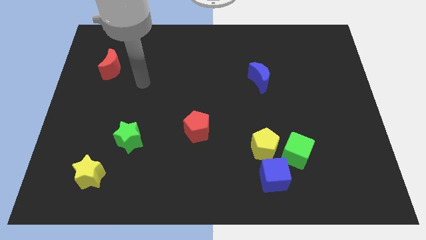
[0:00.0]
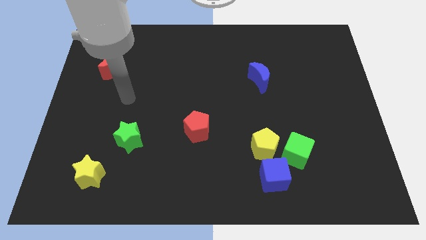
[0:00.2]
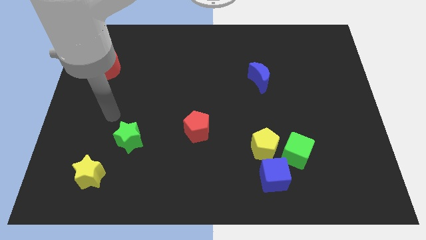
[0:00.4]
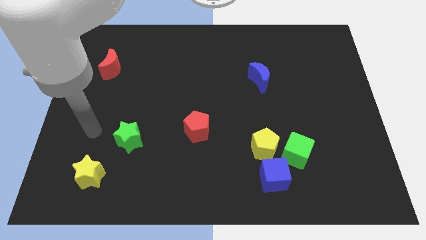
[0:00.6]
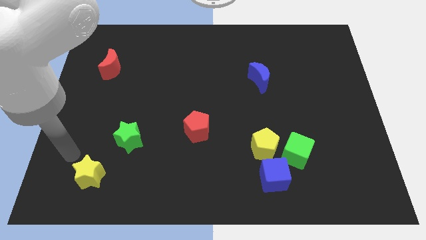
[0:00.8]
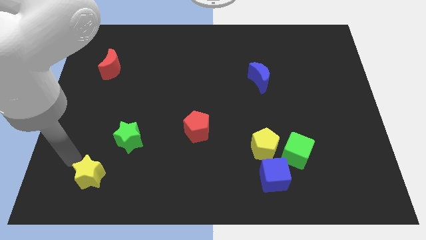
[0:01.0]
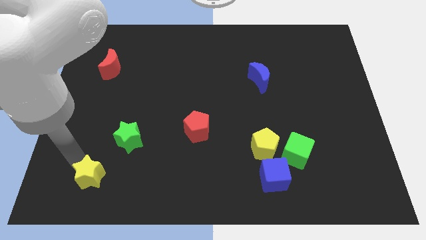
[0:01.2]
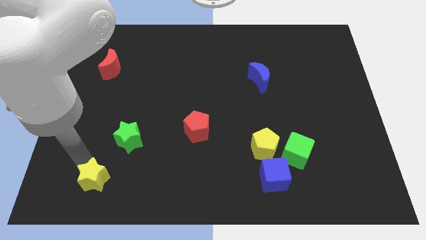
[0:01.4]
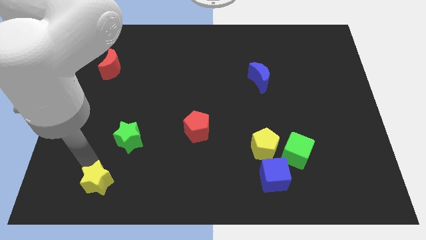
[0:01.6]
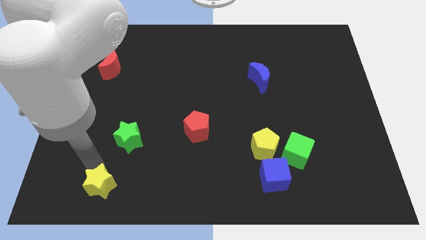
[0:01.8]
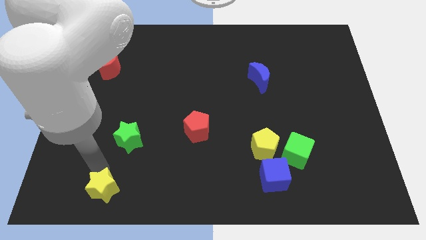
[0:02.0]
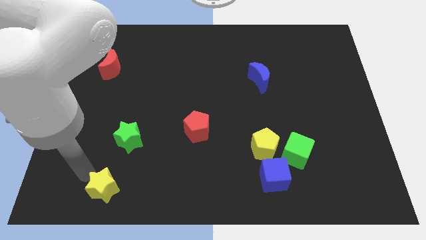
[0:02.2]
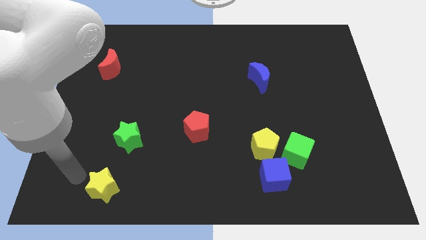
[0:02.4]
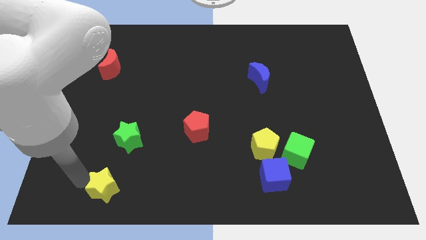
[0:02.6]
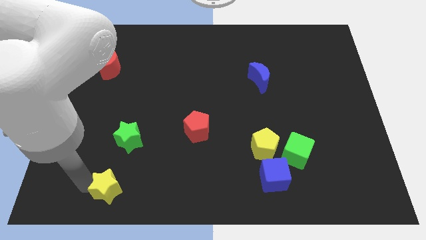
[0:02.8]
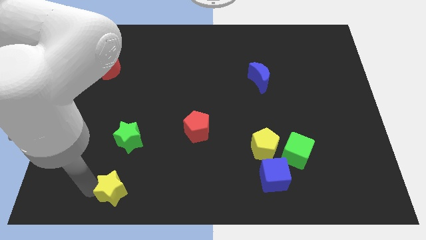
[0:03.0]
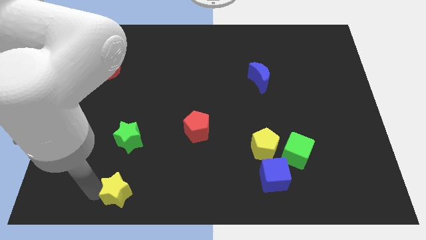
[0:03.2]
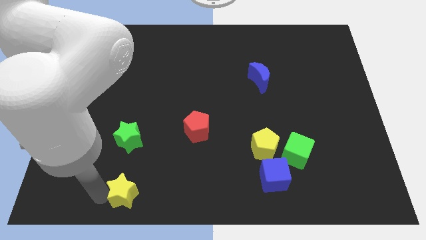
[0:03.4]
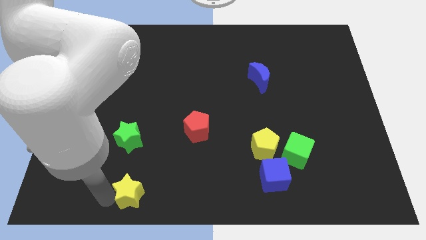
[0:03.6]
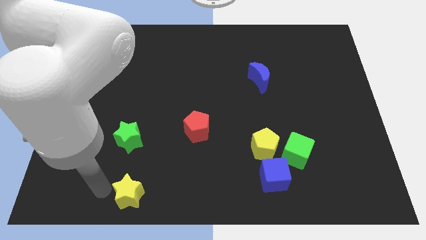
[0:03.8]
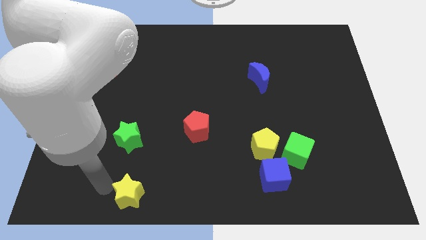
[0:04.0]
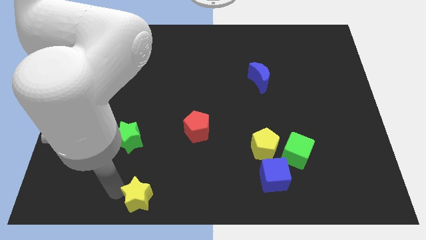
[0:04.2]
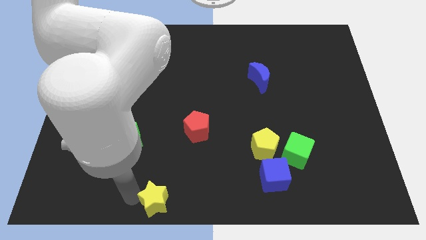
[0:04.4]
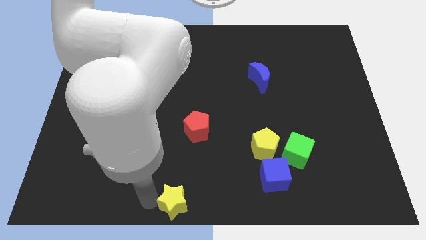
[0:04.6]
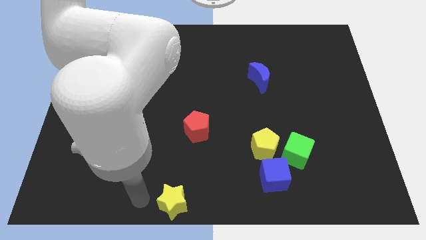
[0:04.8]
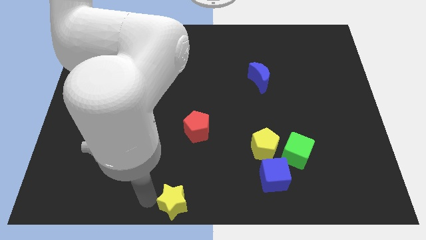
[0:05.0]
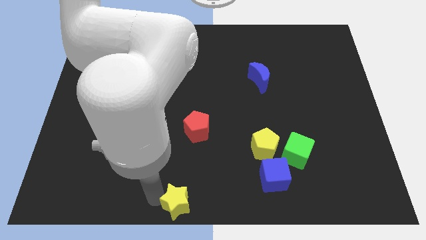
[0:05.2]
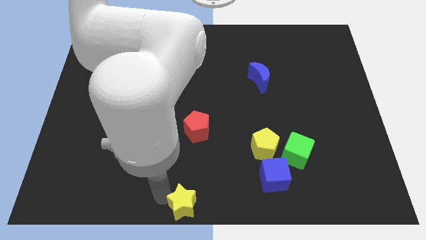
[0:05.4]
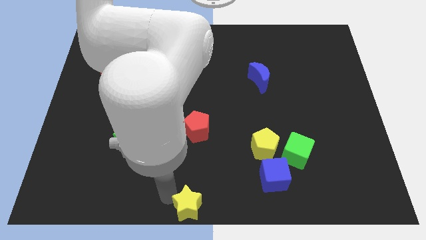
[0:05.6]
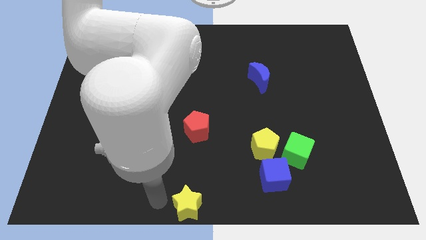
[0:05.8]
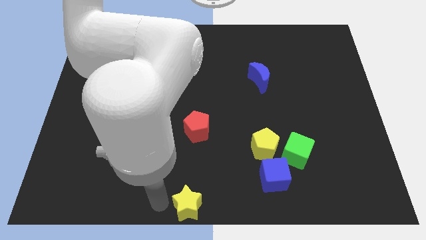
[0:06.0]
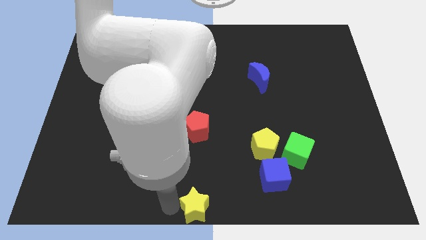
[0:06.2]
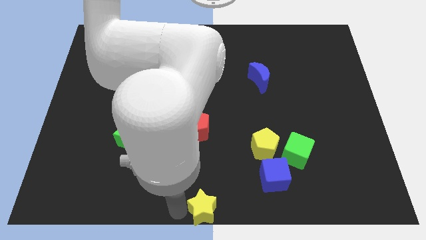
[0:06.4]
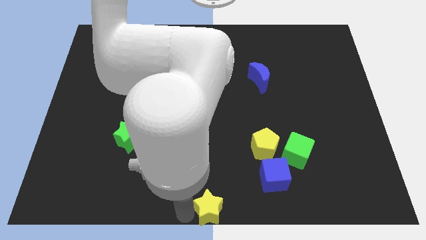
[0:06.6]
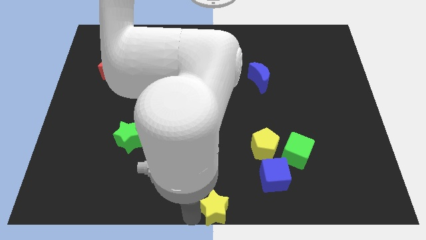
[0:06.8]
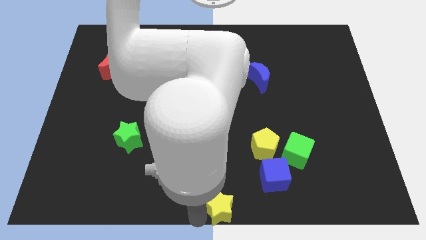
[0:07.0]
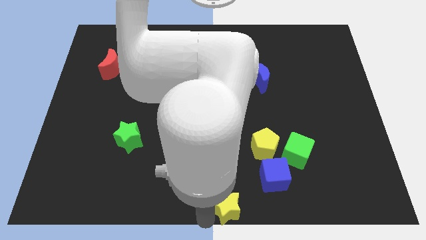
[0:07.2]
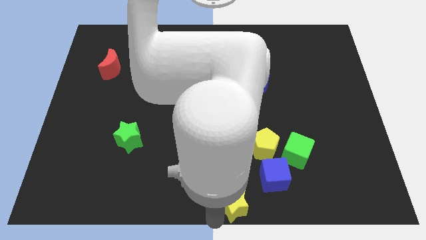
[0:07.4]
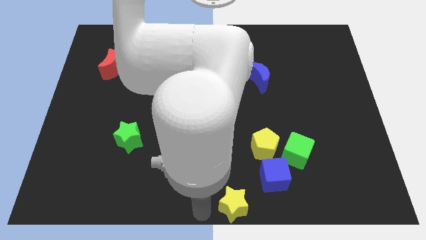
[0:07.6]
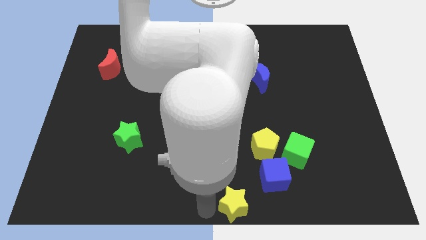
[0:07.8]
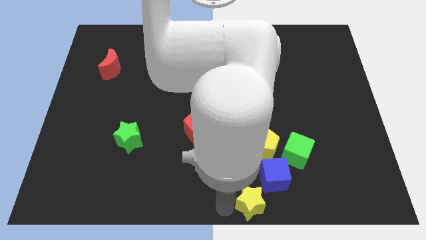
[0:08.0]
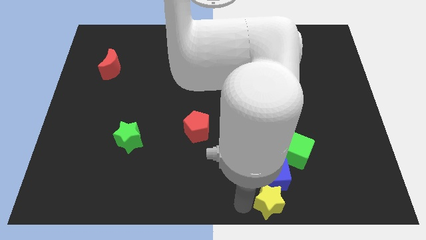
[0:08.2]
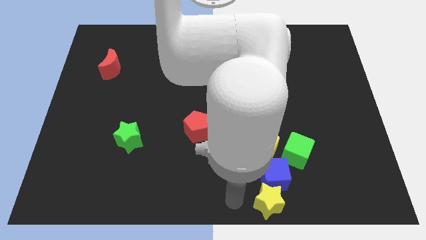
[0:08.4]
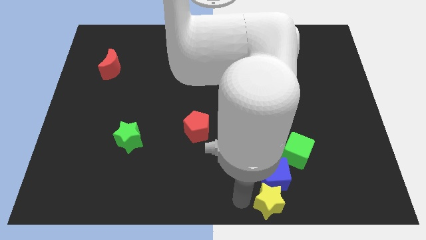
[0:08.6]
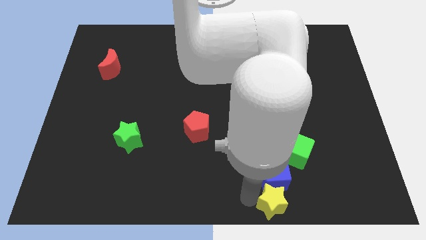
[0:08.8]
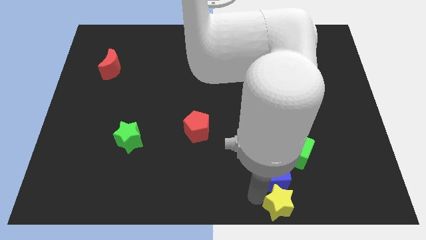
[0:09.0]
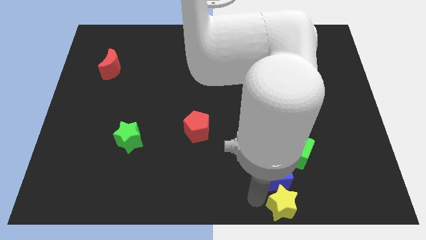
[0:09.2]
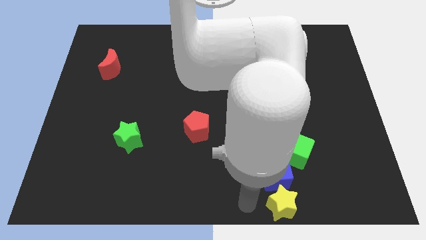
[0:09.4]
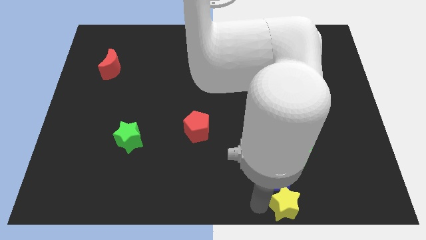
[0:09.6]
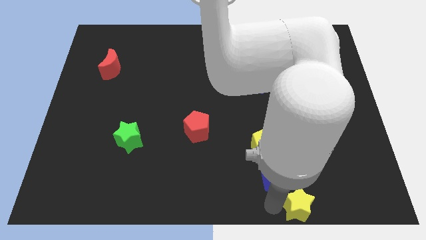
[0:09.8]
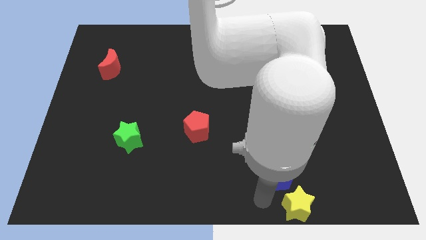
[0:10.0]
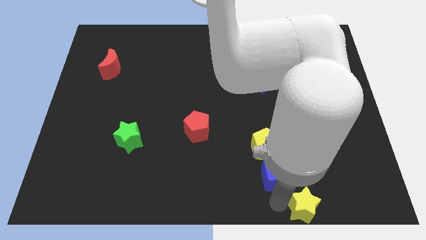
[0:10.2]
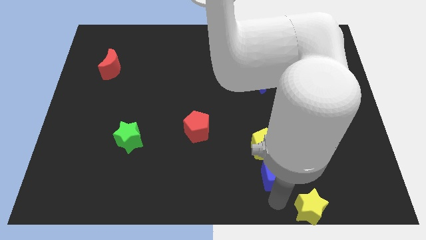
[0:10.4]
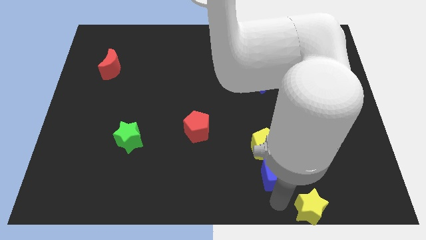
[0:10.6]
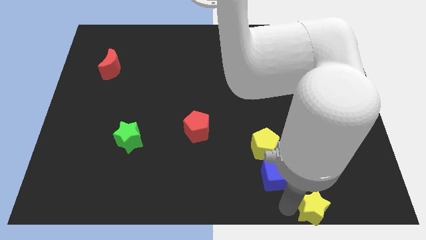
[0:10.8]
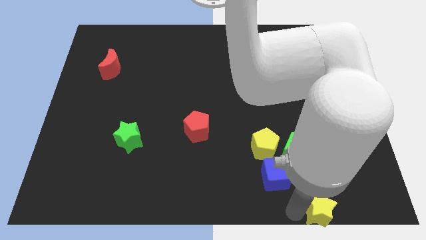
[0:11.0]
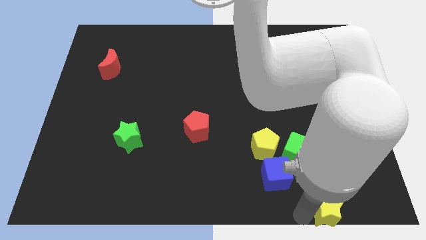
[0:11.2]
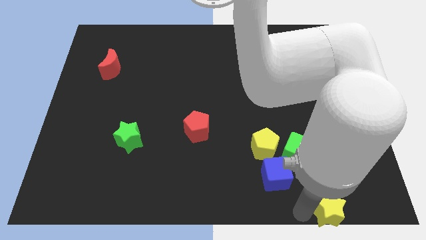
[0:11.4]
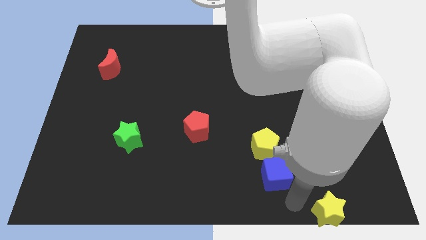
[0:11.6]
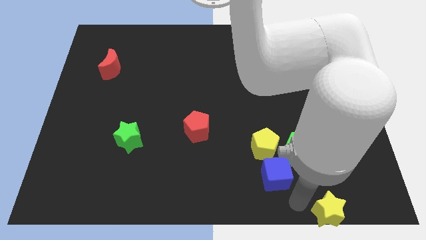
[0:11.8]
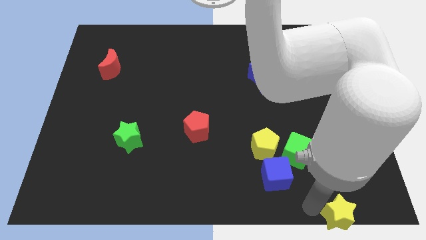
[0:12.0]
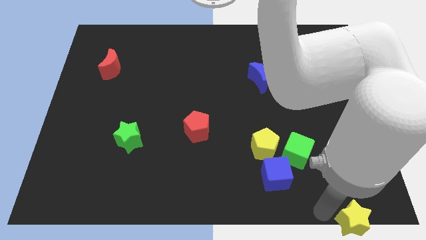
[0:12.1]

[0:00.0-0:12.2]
put the yellow star to the bottom right

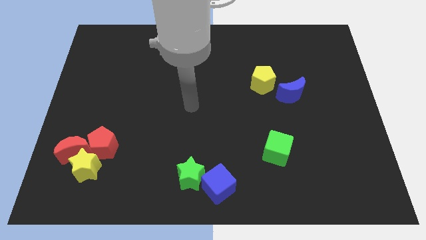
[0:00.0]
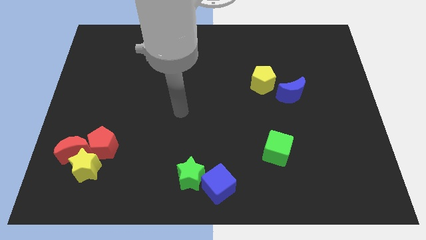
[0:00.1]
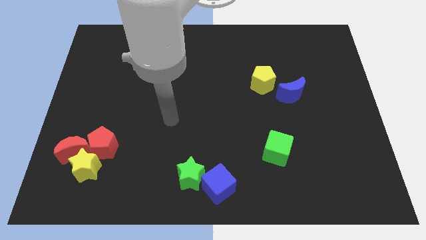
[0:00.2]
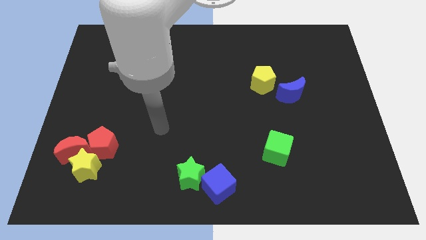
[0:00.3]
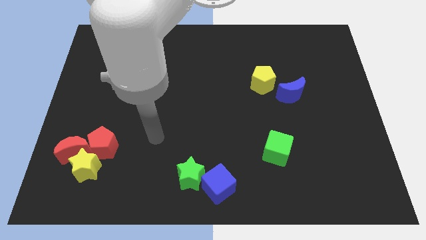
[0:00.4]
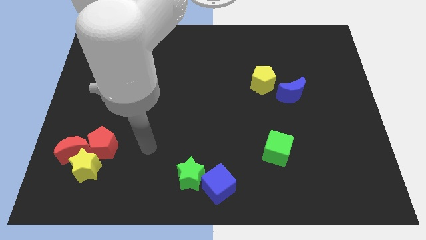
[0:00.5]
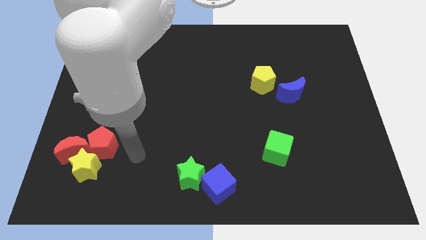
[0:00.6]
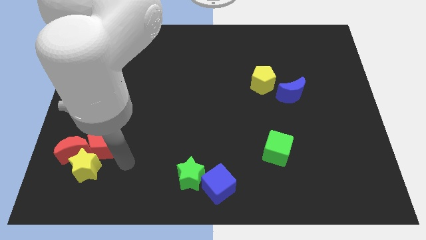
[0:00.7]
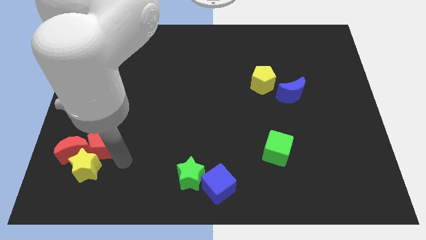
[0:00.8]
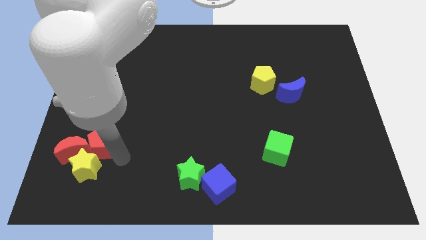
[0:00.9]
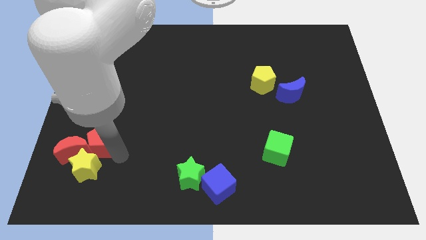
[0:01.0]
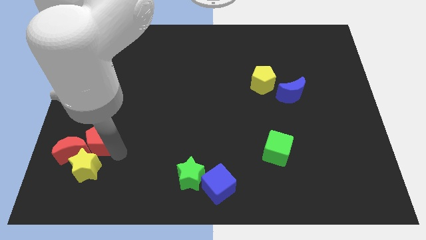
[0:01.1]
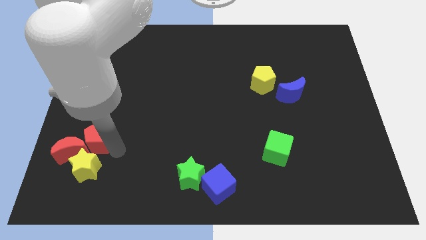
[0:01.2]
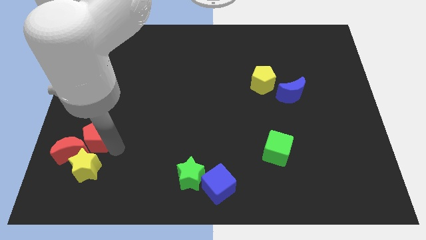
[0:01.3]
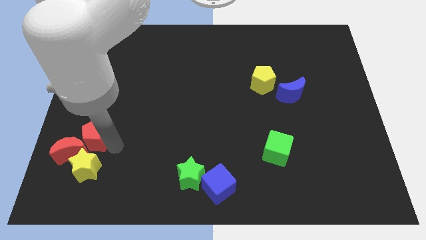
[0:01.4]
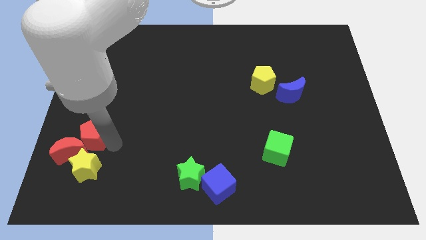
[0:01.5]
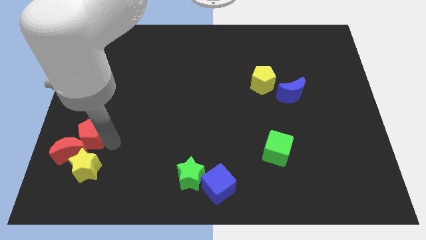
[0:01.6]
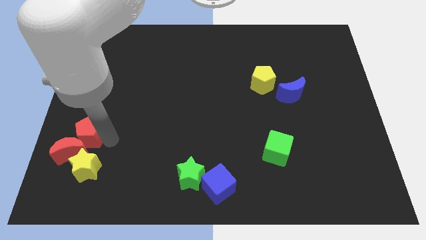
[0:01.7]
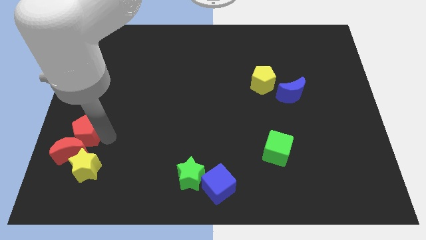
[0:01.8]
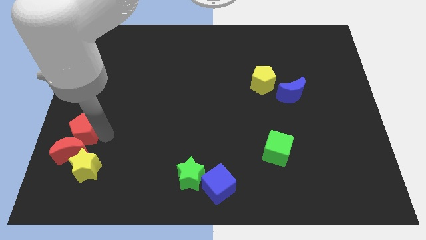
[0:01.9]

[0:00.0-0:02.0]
move the red pentagon to the left side of the board
